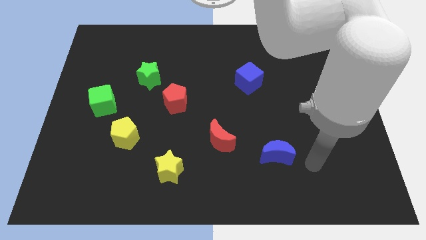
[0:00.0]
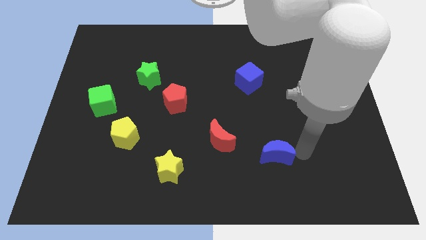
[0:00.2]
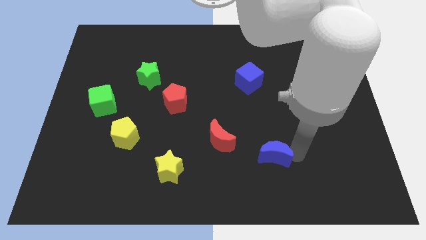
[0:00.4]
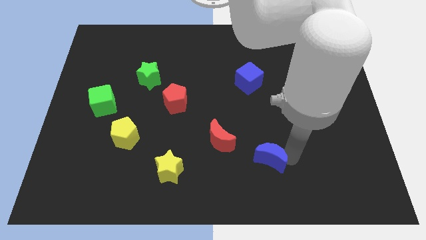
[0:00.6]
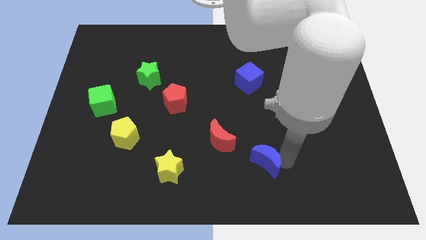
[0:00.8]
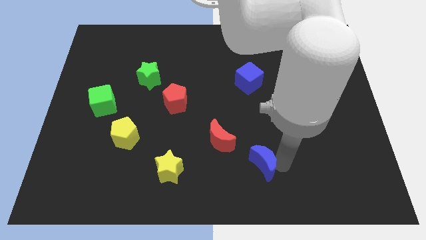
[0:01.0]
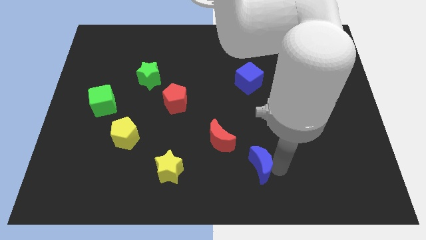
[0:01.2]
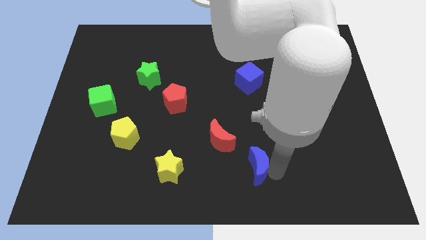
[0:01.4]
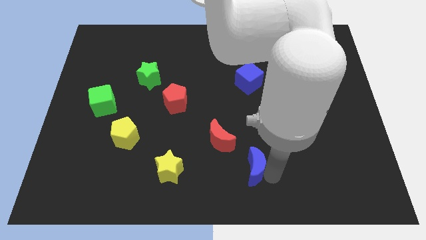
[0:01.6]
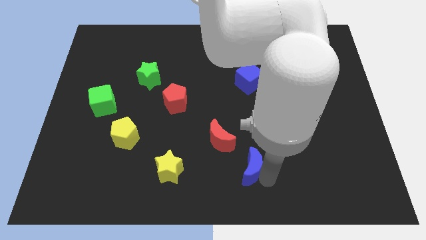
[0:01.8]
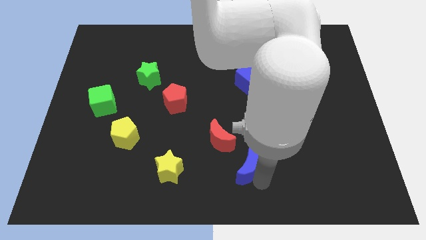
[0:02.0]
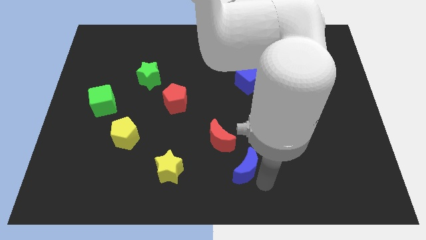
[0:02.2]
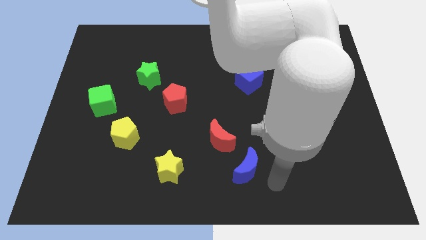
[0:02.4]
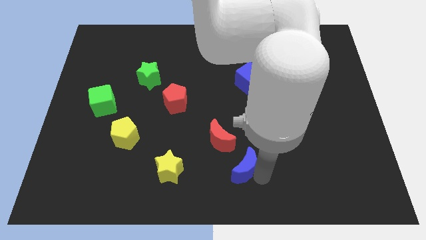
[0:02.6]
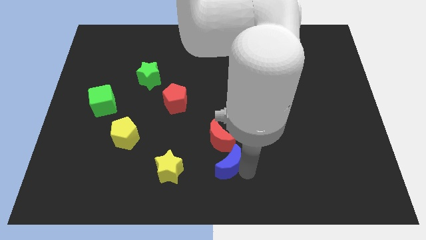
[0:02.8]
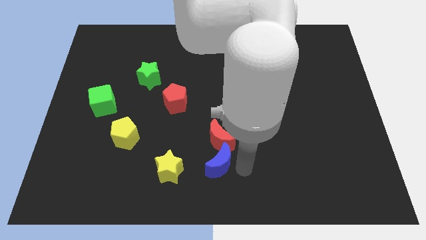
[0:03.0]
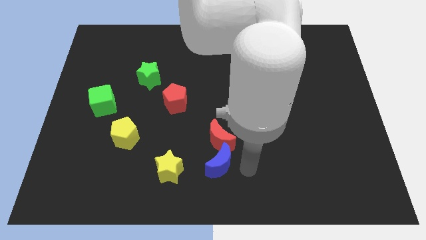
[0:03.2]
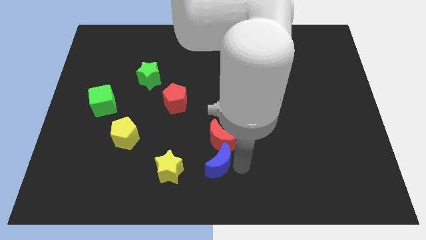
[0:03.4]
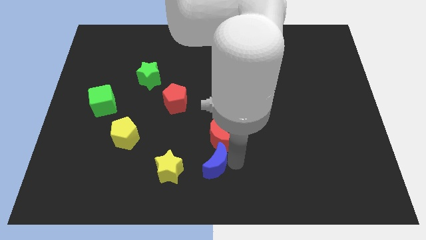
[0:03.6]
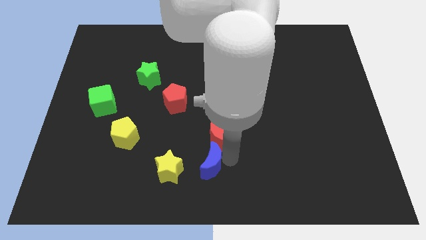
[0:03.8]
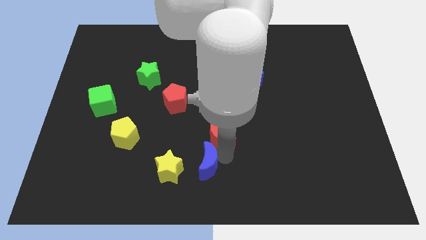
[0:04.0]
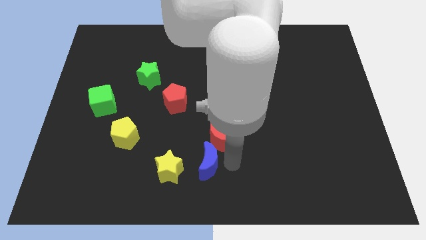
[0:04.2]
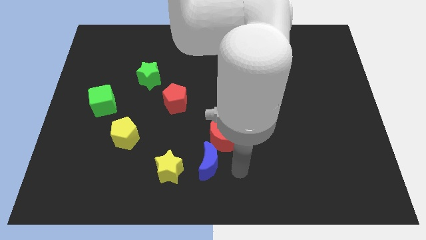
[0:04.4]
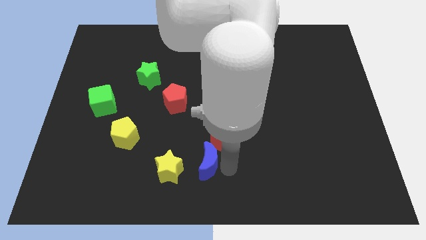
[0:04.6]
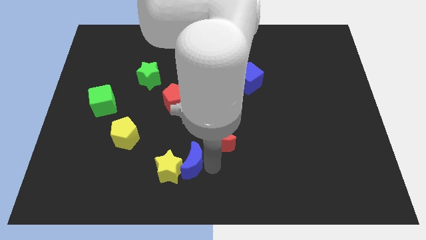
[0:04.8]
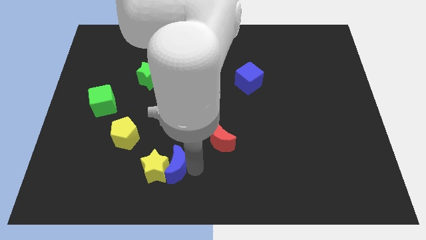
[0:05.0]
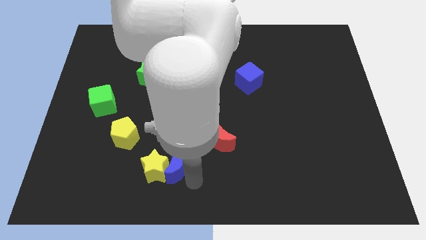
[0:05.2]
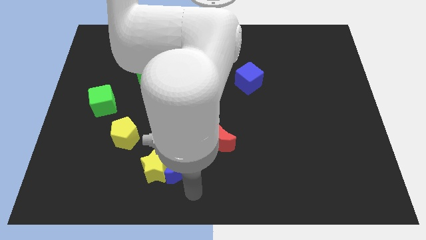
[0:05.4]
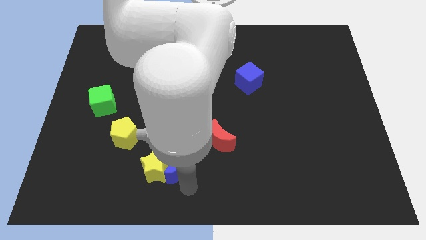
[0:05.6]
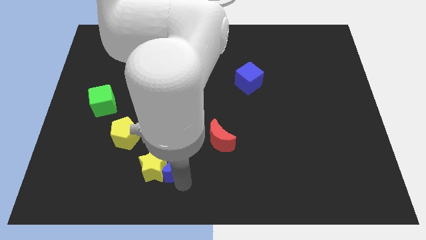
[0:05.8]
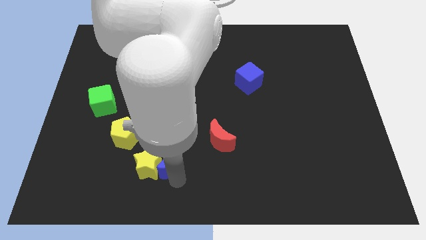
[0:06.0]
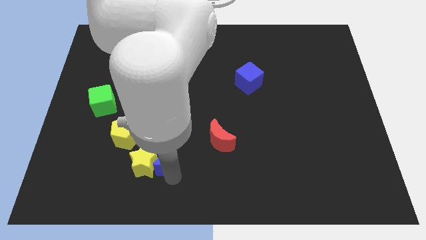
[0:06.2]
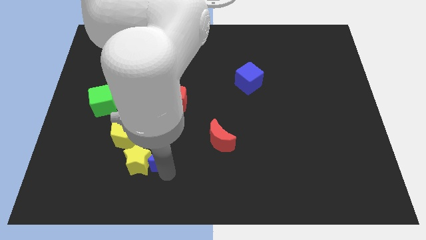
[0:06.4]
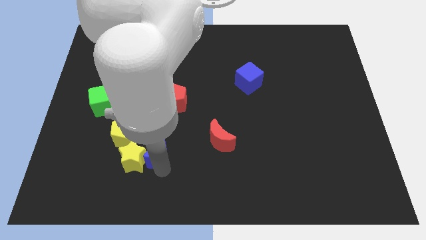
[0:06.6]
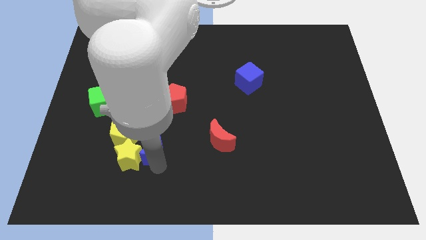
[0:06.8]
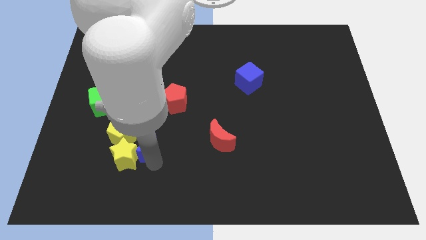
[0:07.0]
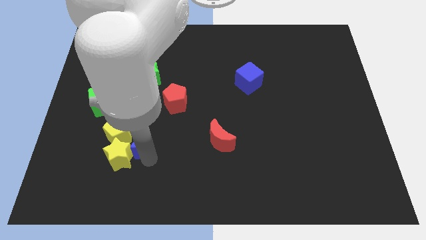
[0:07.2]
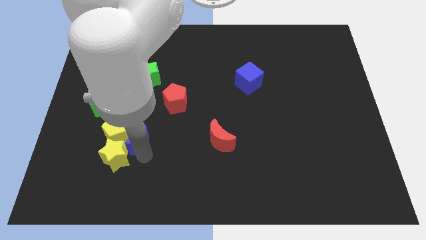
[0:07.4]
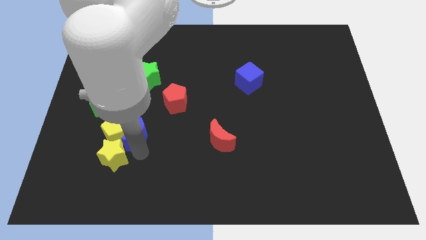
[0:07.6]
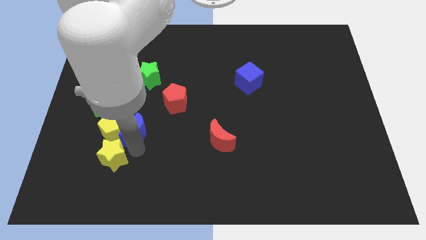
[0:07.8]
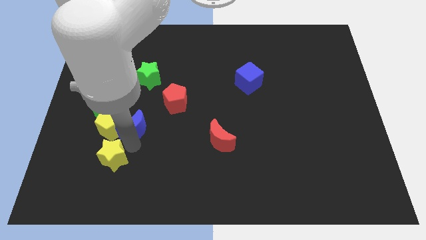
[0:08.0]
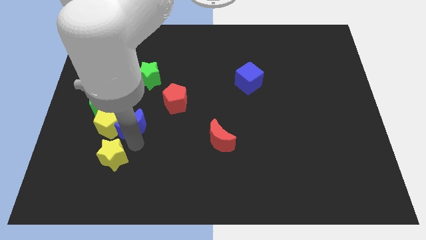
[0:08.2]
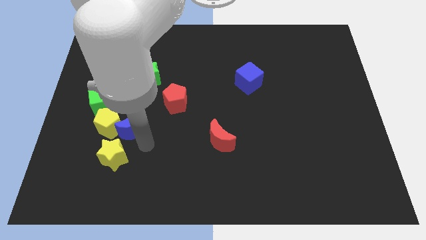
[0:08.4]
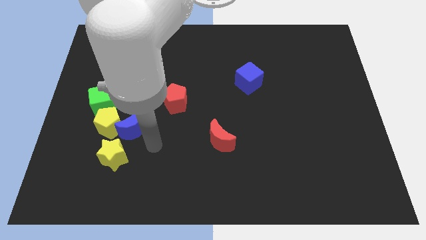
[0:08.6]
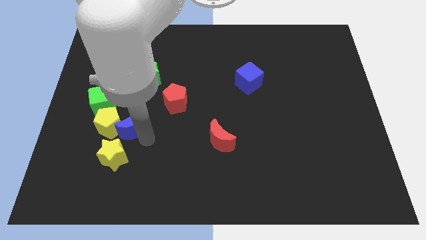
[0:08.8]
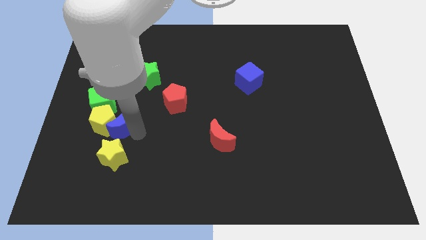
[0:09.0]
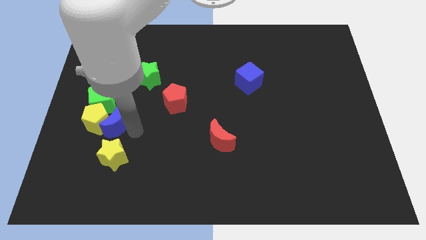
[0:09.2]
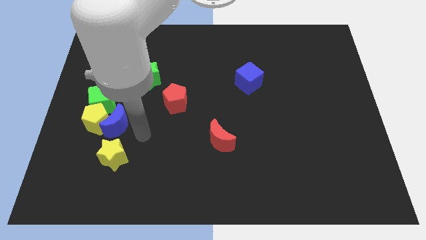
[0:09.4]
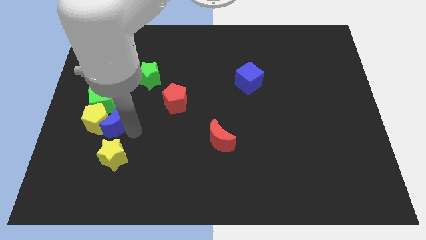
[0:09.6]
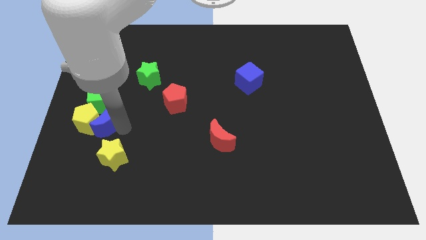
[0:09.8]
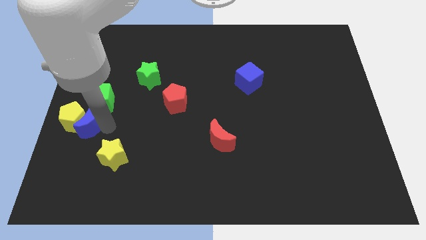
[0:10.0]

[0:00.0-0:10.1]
slide the blue moon to the left side of the board
